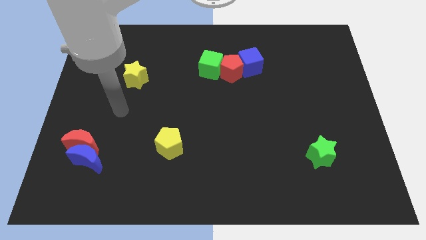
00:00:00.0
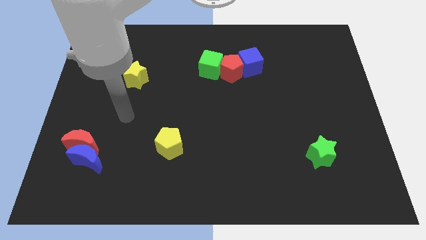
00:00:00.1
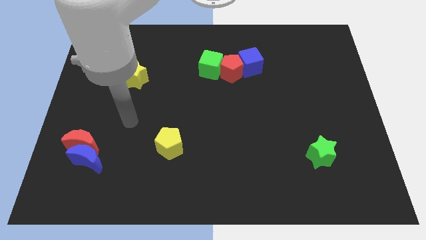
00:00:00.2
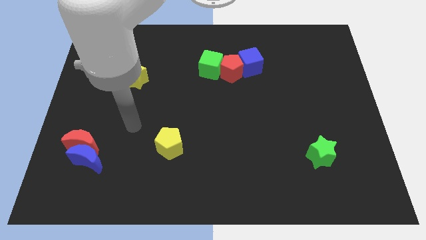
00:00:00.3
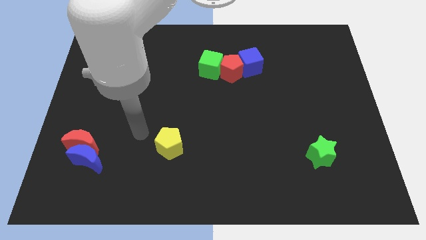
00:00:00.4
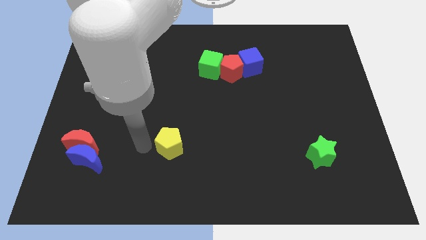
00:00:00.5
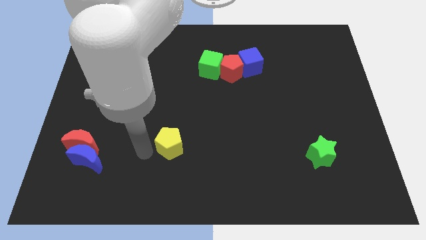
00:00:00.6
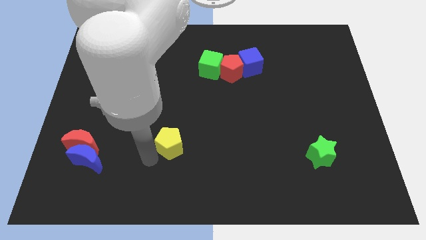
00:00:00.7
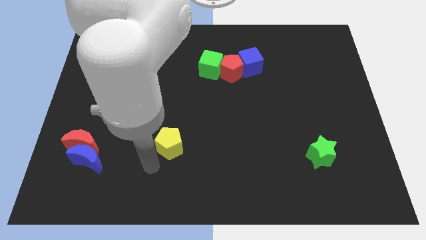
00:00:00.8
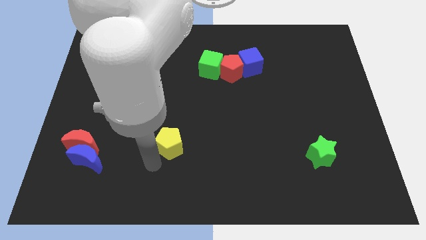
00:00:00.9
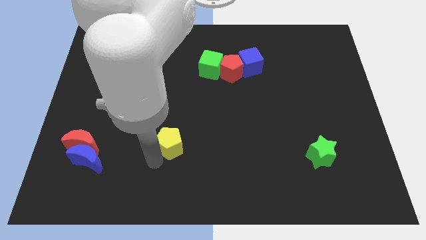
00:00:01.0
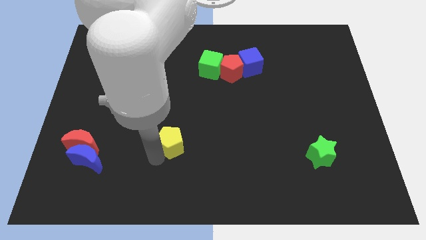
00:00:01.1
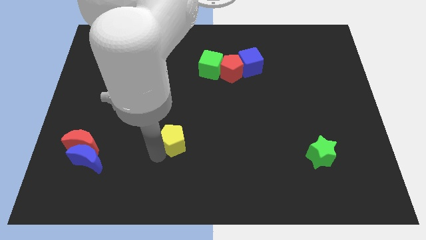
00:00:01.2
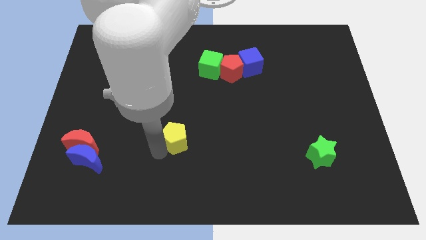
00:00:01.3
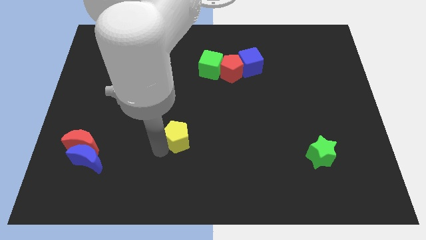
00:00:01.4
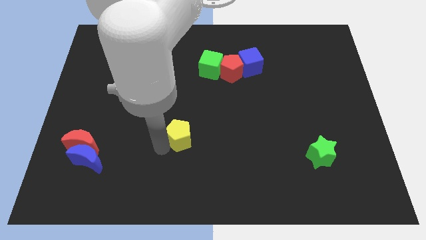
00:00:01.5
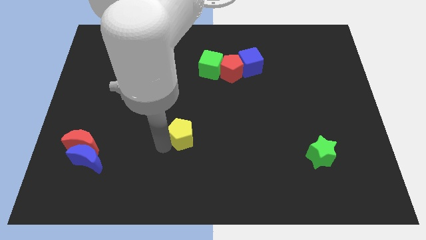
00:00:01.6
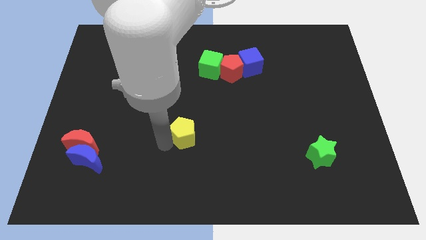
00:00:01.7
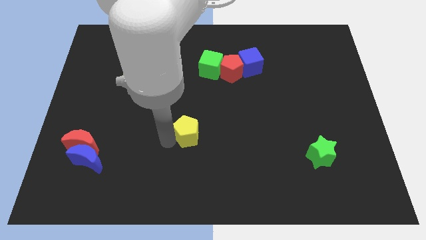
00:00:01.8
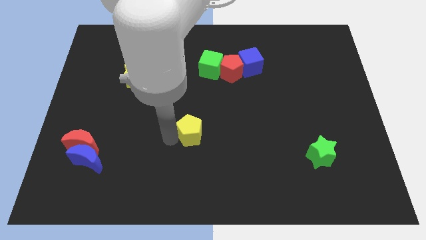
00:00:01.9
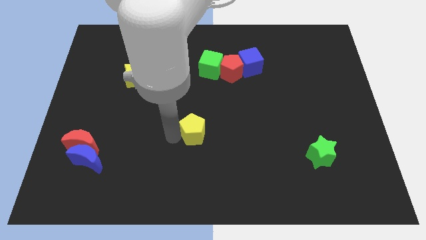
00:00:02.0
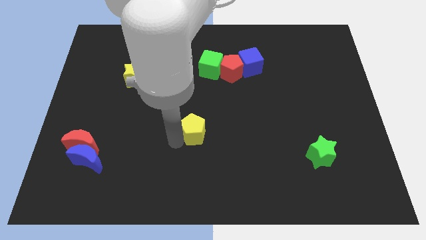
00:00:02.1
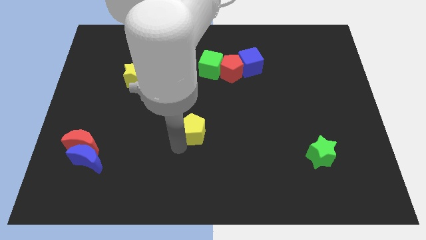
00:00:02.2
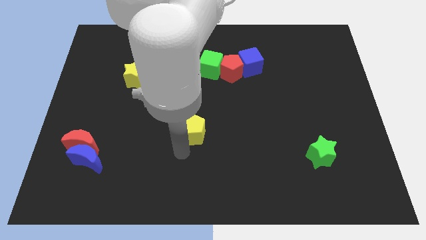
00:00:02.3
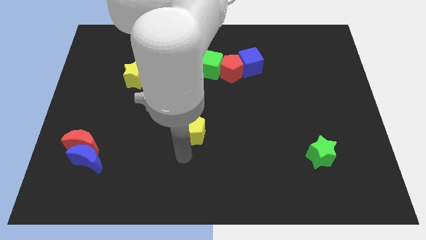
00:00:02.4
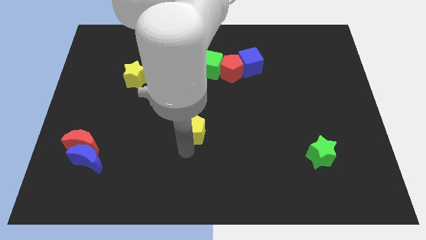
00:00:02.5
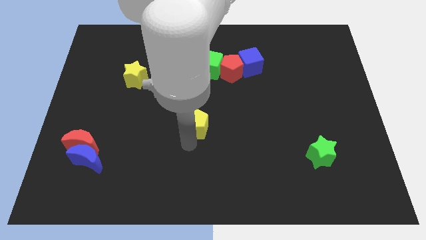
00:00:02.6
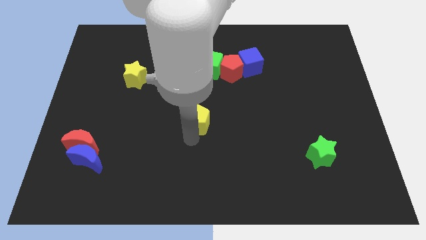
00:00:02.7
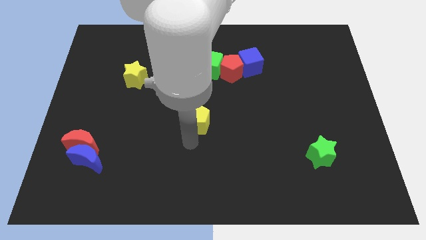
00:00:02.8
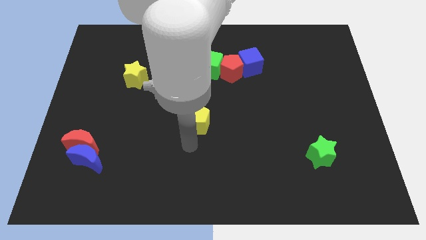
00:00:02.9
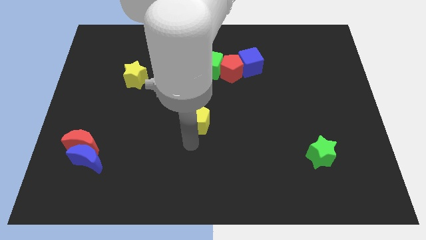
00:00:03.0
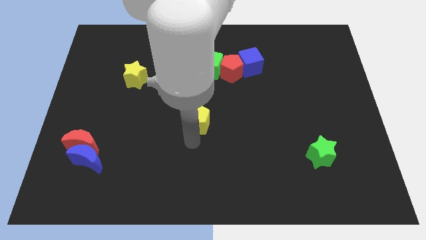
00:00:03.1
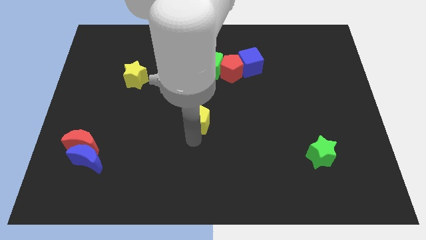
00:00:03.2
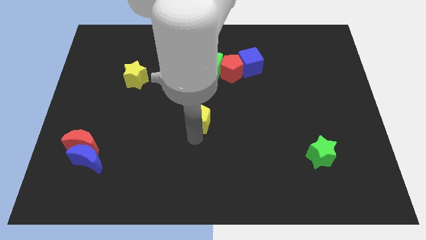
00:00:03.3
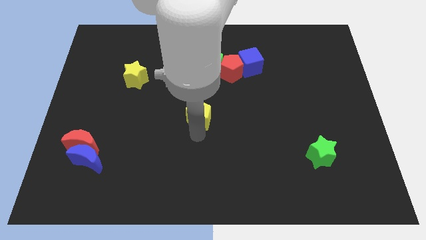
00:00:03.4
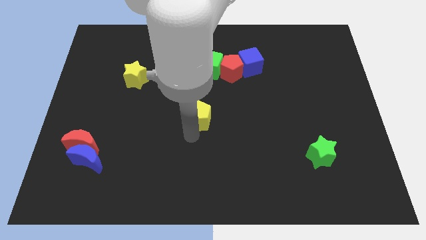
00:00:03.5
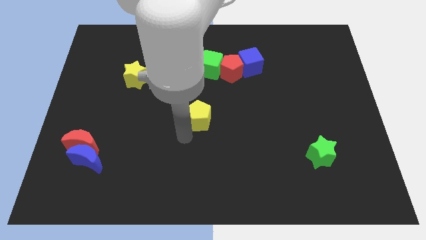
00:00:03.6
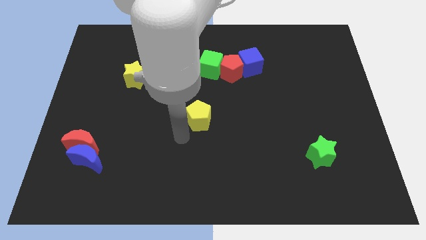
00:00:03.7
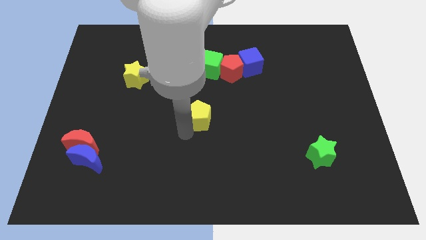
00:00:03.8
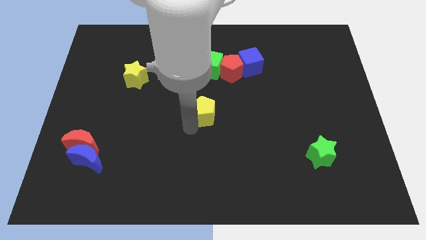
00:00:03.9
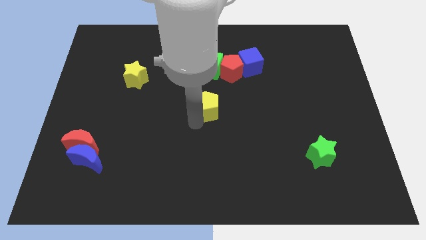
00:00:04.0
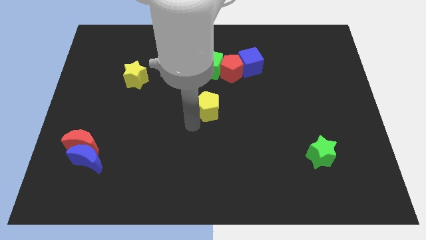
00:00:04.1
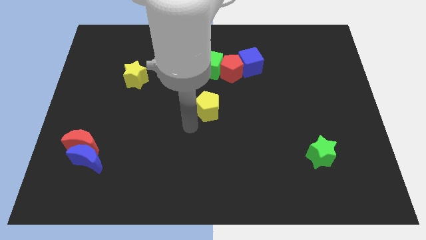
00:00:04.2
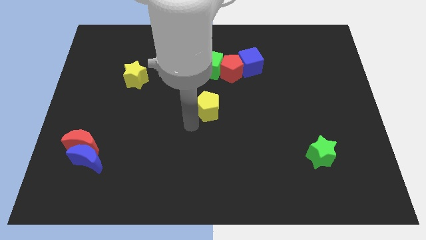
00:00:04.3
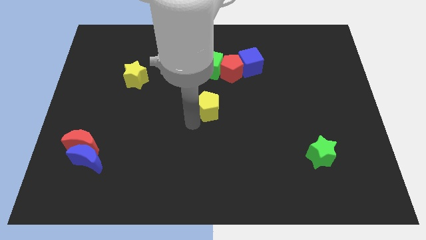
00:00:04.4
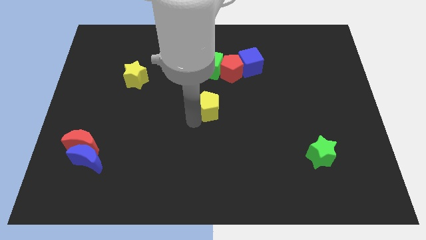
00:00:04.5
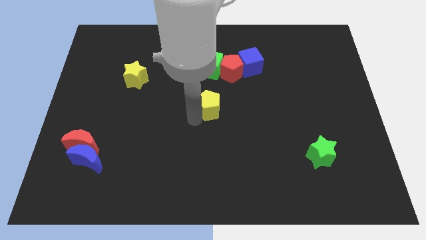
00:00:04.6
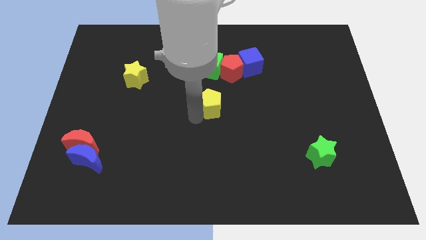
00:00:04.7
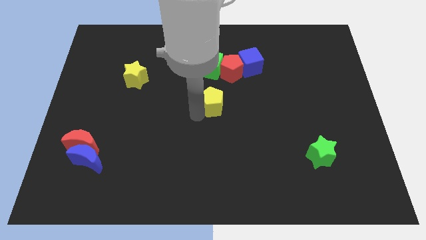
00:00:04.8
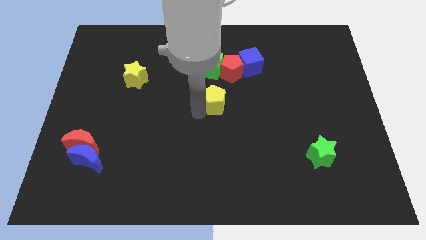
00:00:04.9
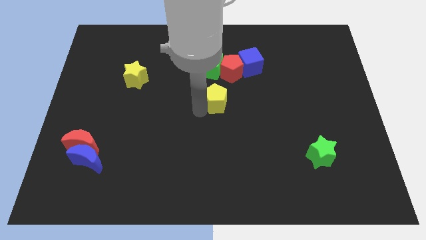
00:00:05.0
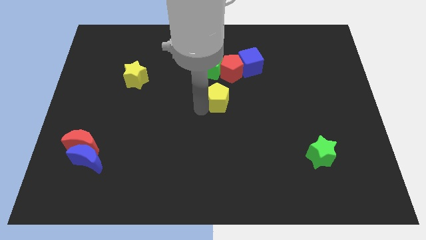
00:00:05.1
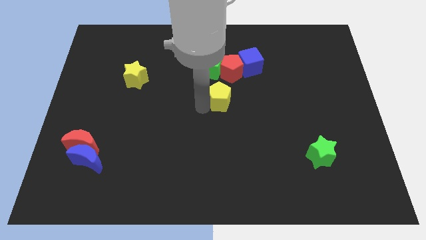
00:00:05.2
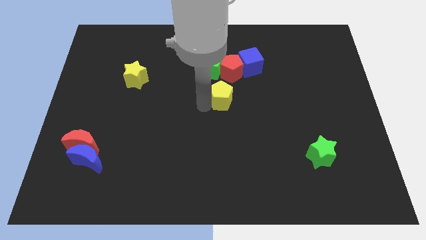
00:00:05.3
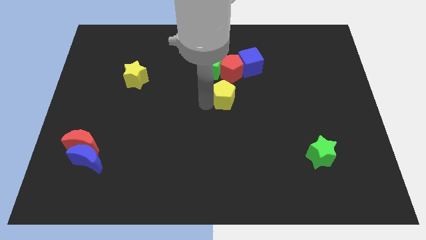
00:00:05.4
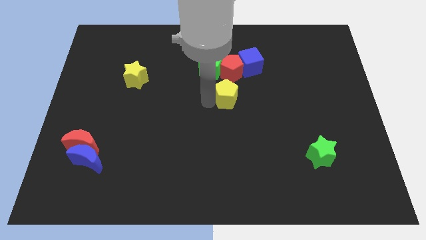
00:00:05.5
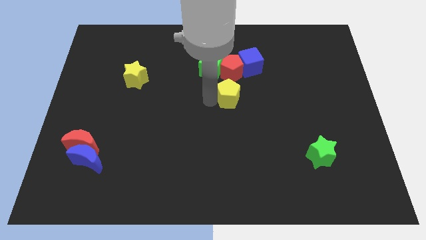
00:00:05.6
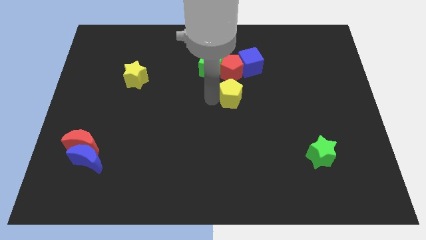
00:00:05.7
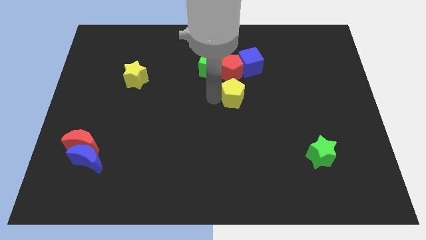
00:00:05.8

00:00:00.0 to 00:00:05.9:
move the yellow pentagon up and then to the right

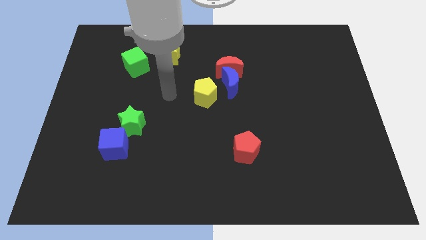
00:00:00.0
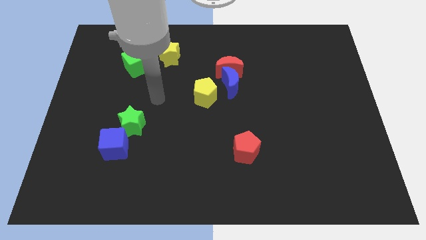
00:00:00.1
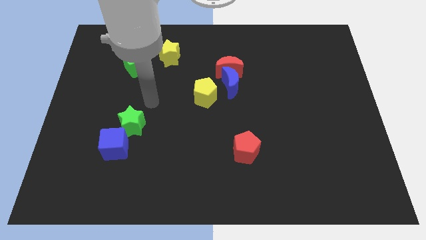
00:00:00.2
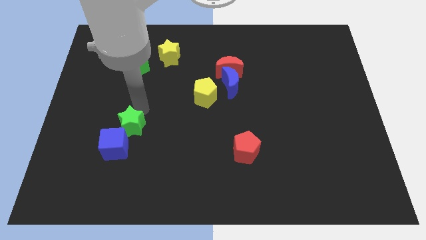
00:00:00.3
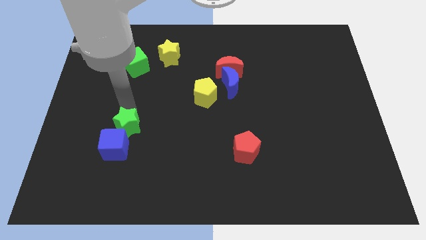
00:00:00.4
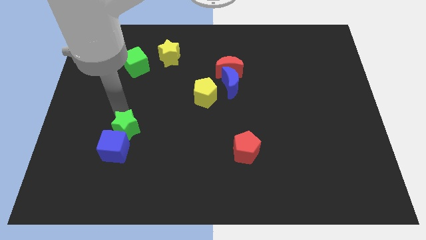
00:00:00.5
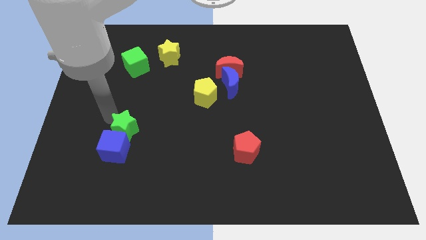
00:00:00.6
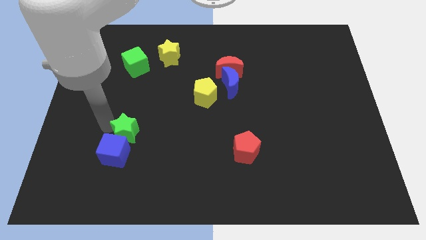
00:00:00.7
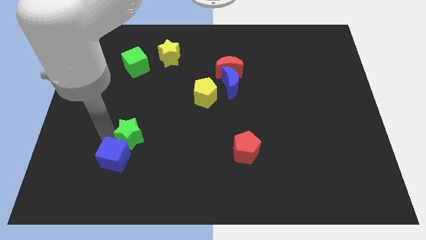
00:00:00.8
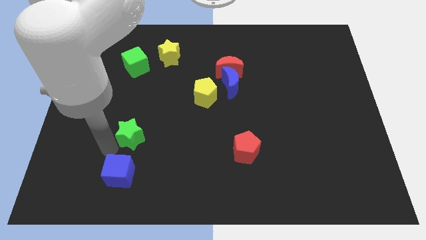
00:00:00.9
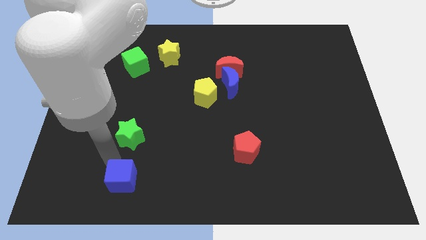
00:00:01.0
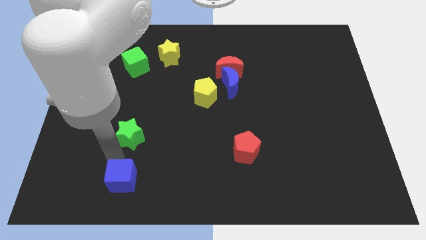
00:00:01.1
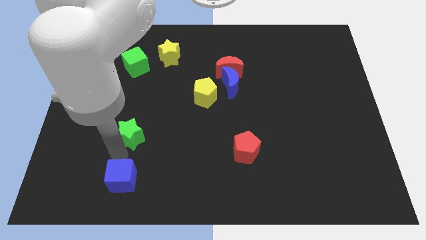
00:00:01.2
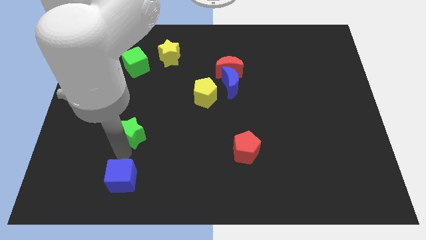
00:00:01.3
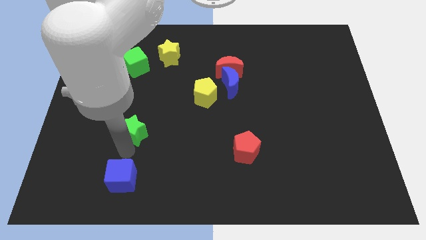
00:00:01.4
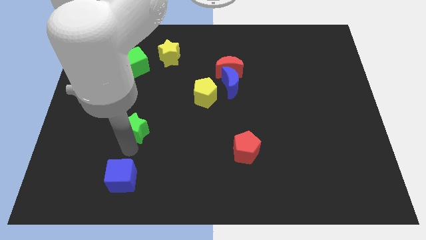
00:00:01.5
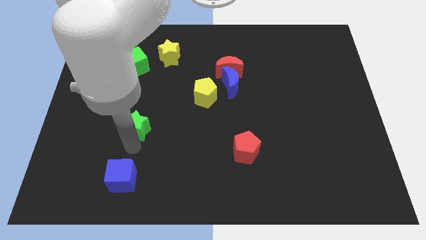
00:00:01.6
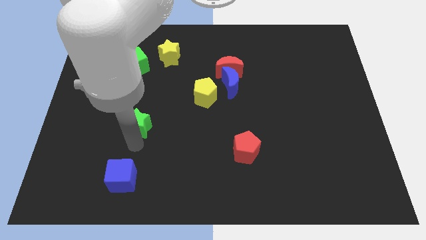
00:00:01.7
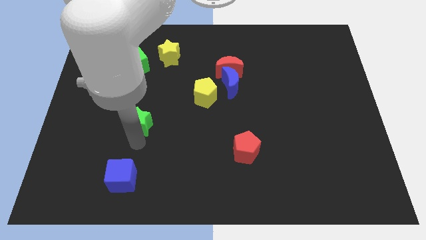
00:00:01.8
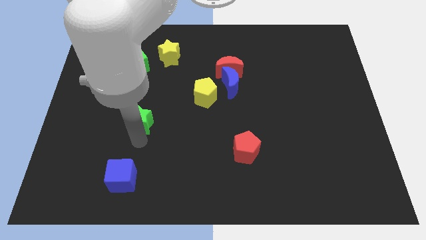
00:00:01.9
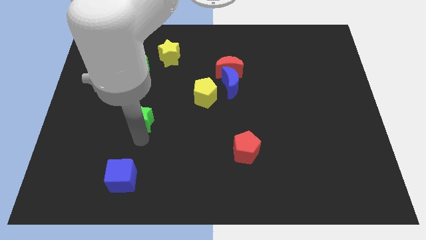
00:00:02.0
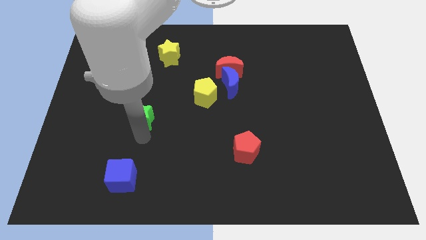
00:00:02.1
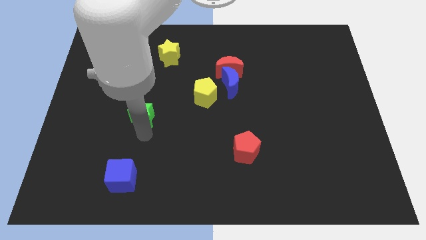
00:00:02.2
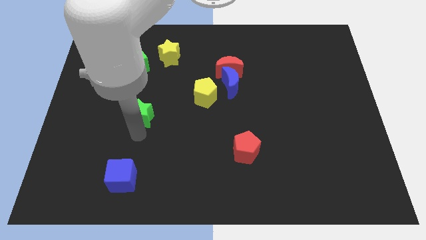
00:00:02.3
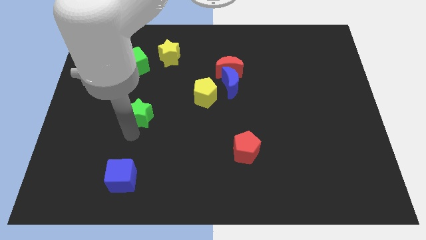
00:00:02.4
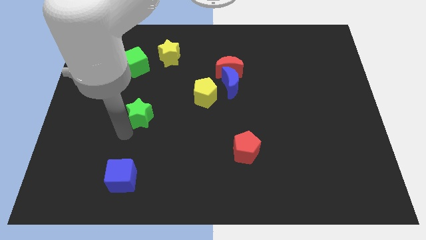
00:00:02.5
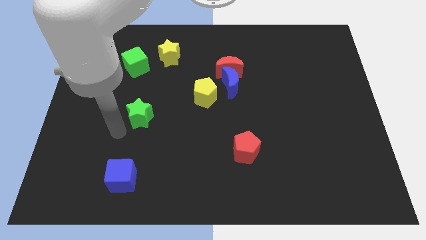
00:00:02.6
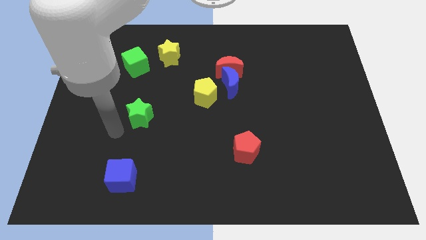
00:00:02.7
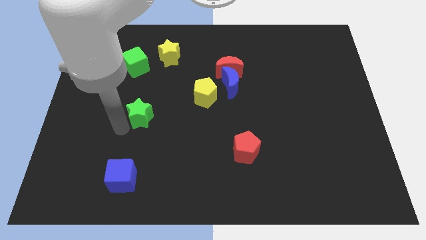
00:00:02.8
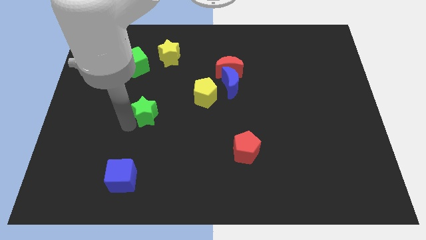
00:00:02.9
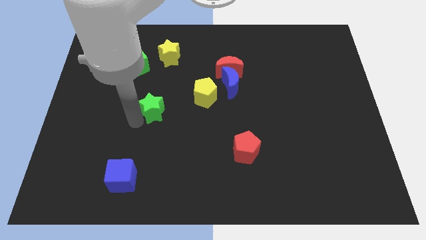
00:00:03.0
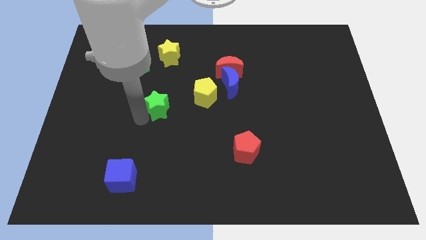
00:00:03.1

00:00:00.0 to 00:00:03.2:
push the green star a bit up and then right
